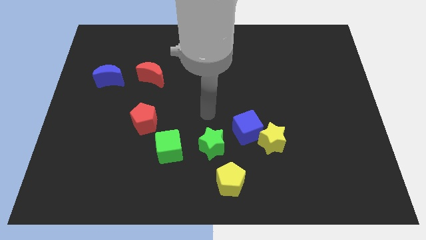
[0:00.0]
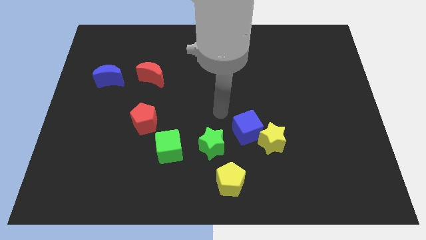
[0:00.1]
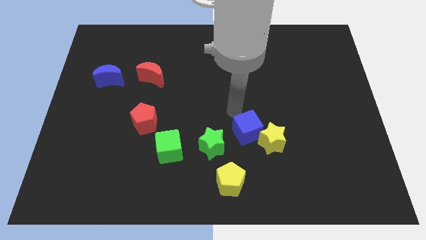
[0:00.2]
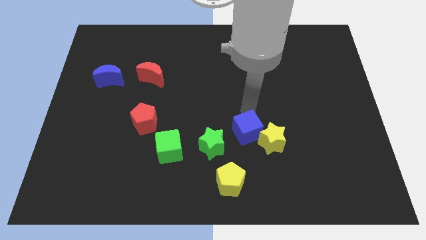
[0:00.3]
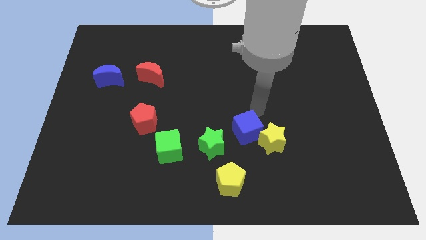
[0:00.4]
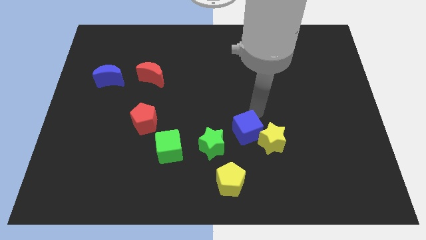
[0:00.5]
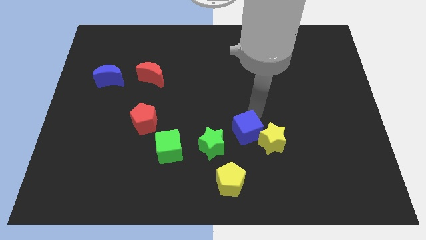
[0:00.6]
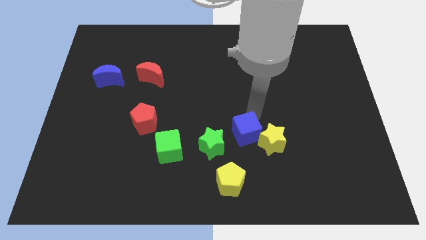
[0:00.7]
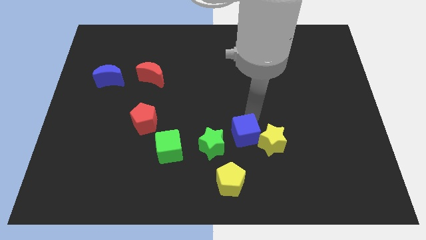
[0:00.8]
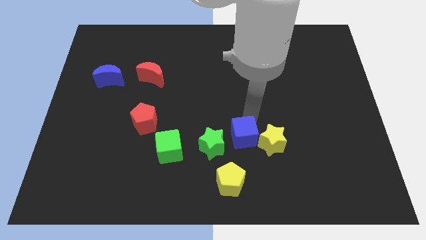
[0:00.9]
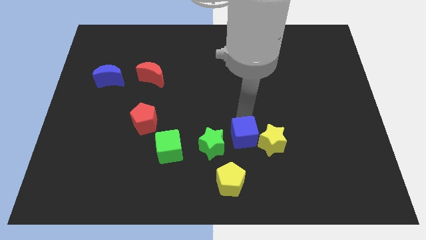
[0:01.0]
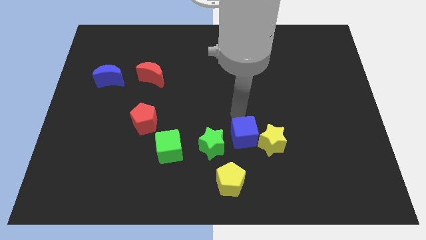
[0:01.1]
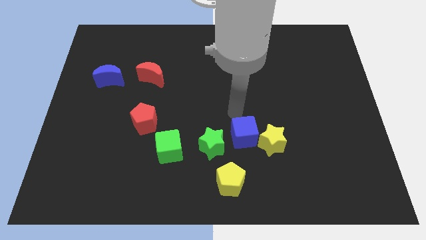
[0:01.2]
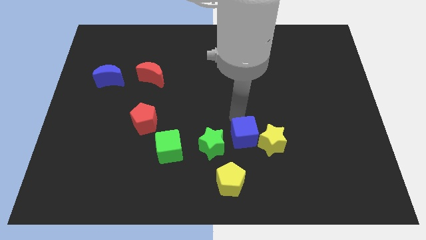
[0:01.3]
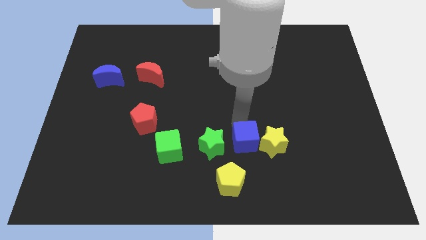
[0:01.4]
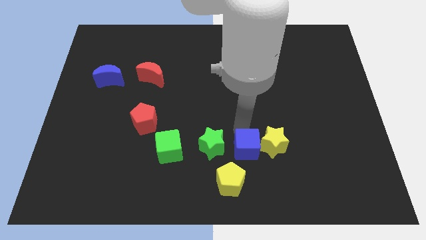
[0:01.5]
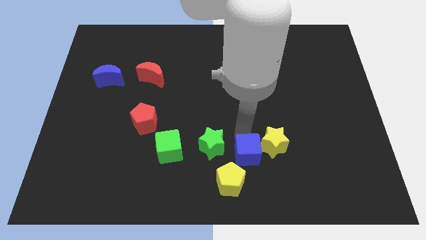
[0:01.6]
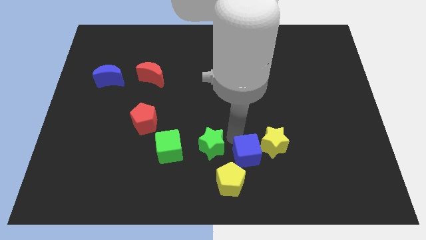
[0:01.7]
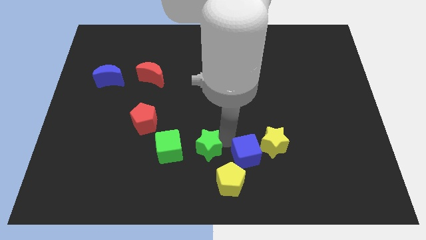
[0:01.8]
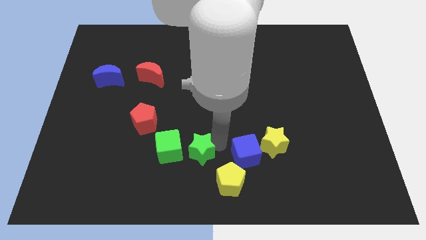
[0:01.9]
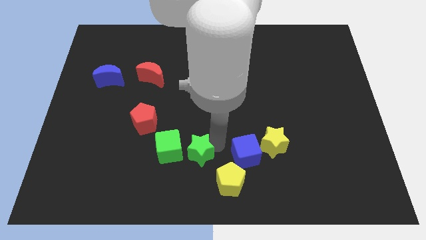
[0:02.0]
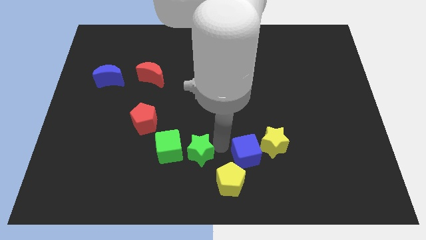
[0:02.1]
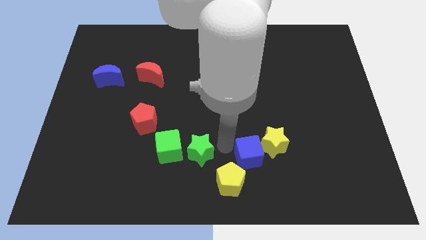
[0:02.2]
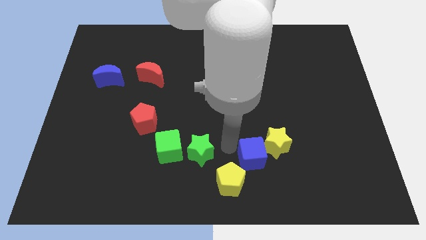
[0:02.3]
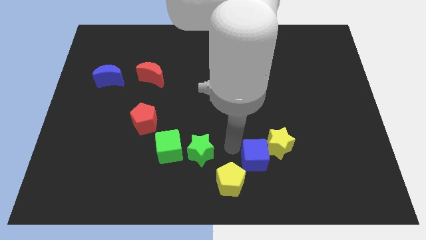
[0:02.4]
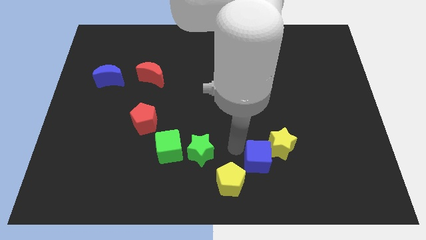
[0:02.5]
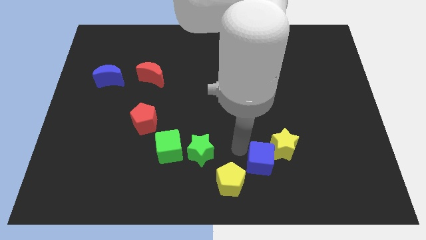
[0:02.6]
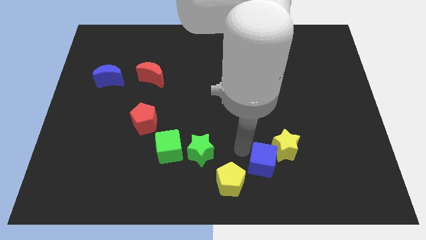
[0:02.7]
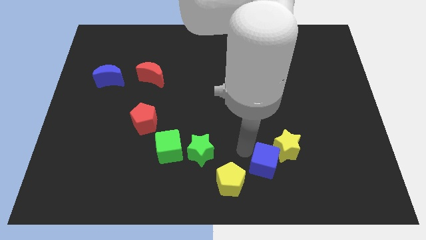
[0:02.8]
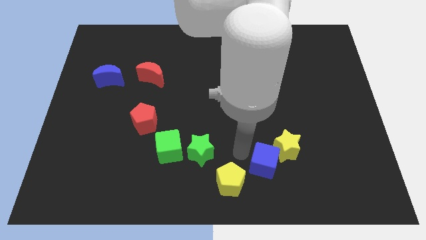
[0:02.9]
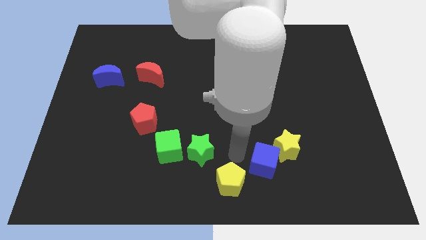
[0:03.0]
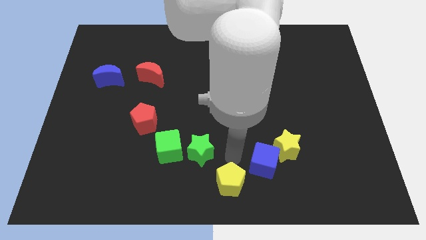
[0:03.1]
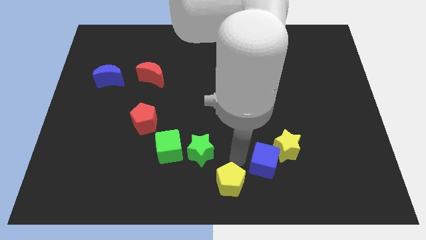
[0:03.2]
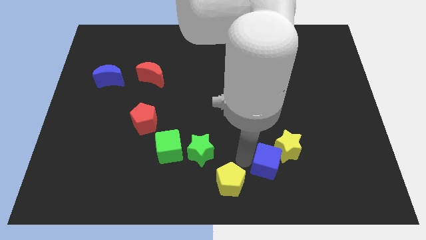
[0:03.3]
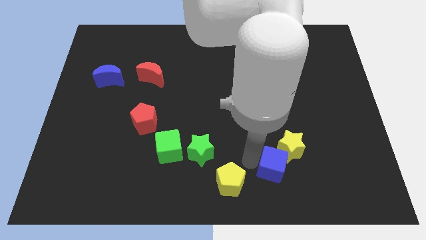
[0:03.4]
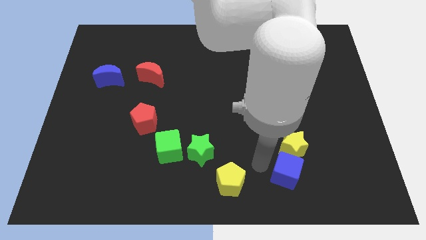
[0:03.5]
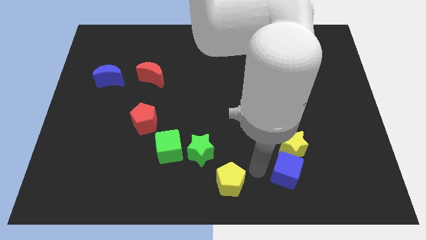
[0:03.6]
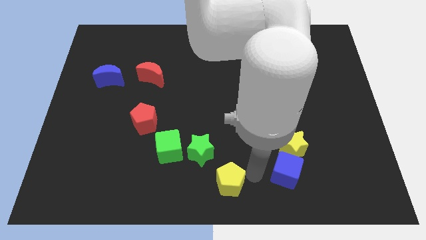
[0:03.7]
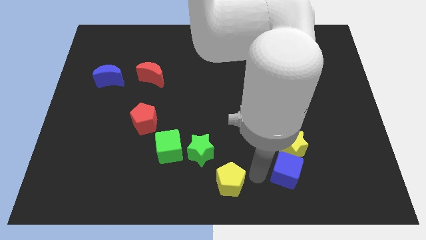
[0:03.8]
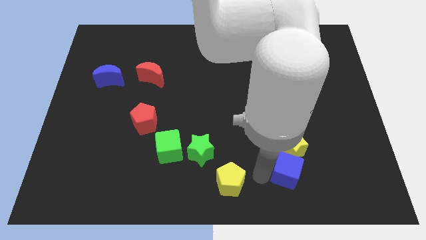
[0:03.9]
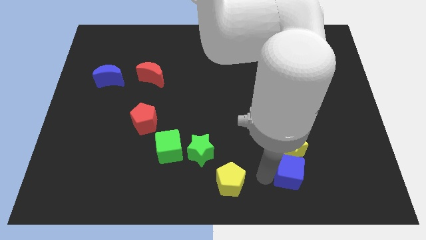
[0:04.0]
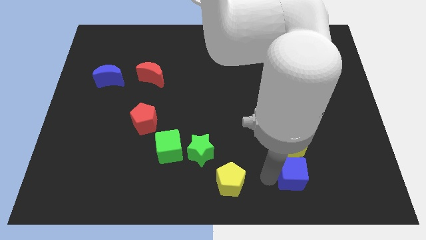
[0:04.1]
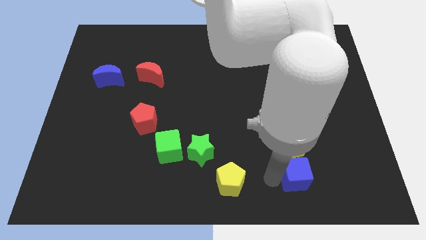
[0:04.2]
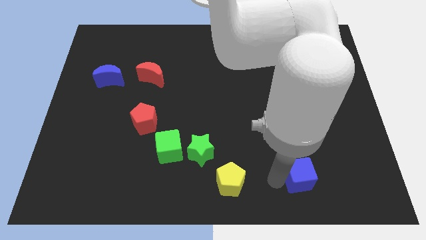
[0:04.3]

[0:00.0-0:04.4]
move the blue cube diagonally down and to the right of the yellow star

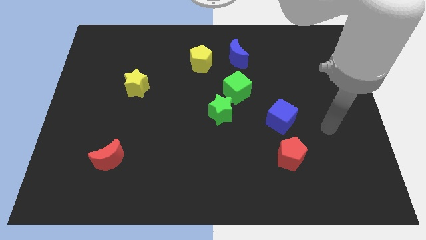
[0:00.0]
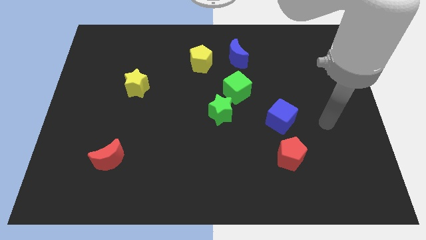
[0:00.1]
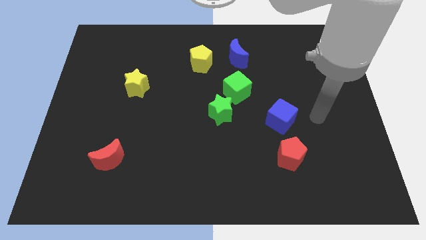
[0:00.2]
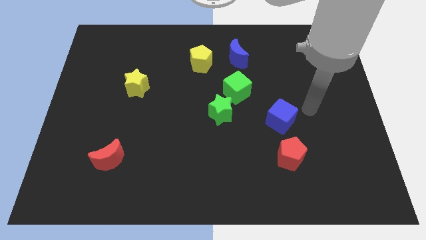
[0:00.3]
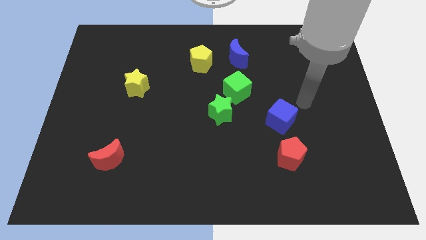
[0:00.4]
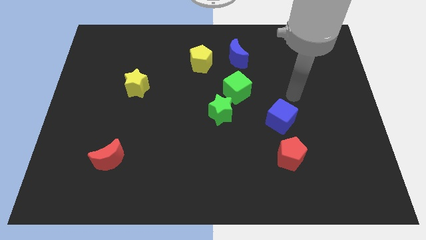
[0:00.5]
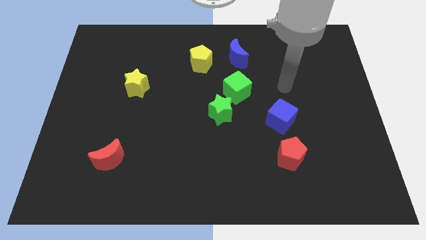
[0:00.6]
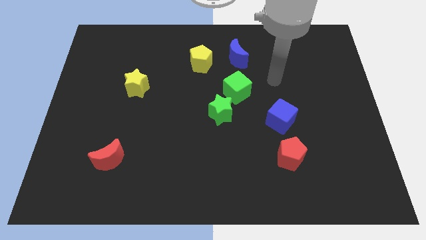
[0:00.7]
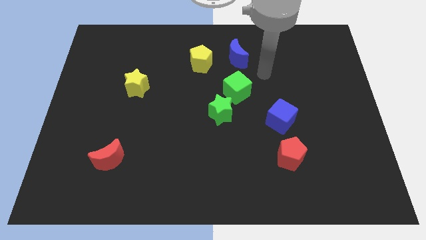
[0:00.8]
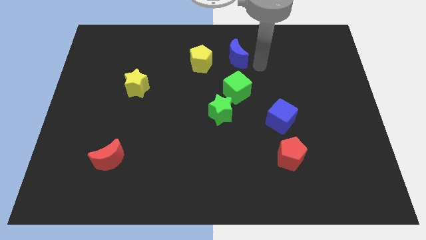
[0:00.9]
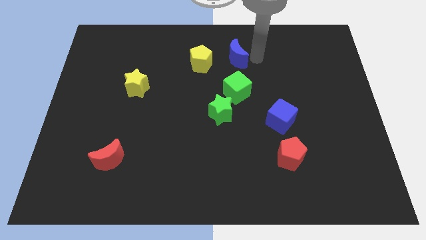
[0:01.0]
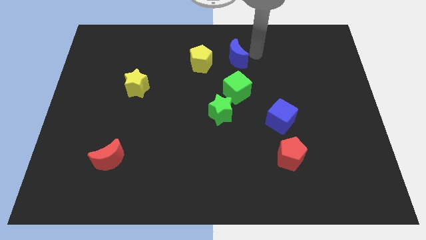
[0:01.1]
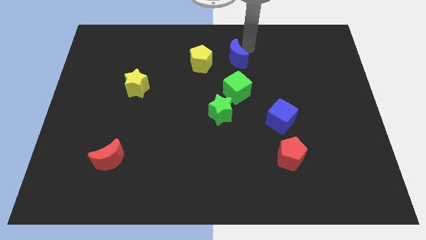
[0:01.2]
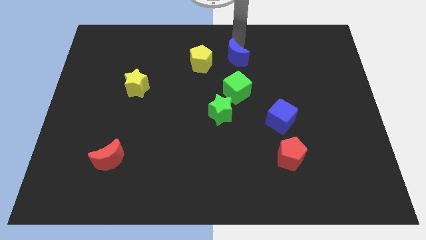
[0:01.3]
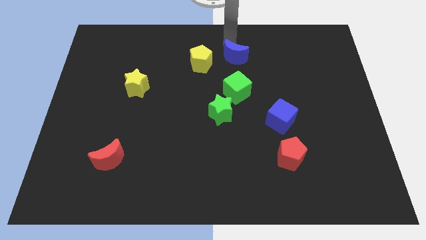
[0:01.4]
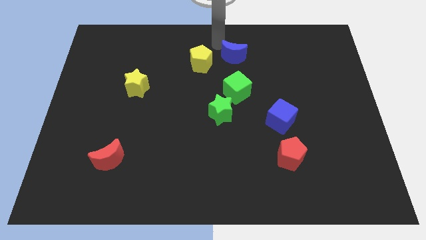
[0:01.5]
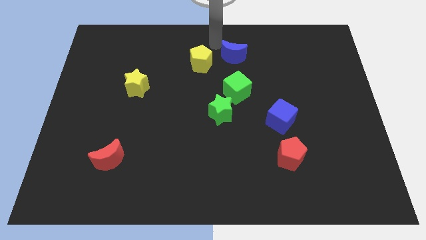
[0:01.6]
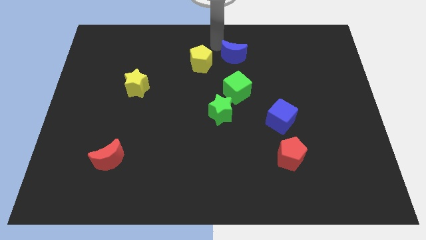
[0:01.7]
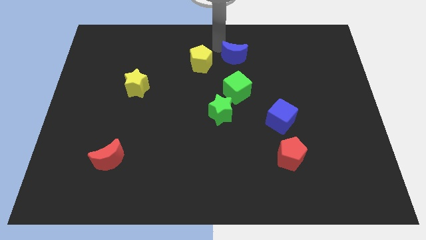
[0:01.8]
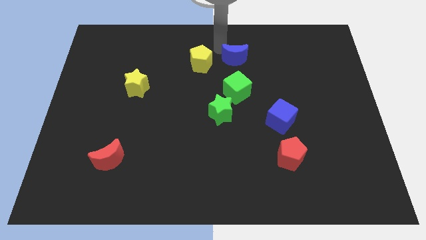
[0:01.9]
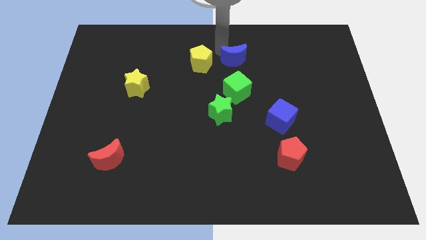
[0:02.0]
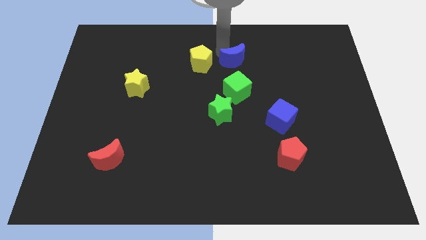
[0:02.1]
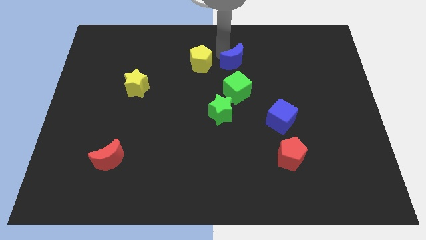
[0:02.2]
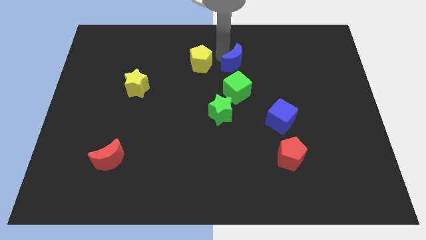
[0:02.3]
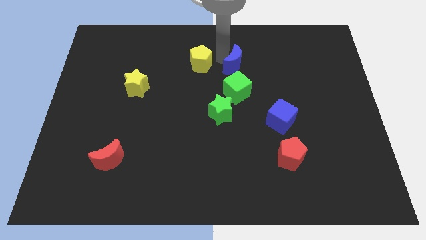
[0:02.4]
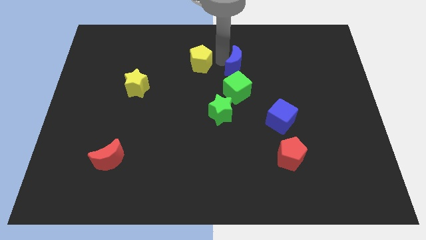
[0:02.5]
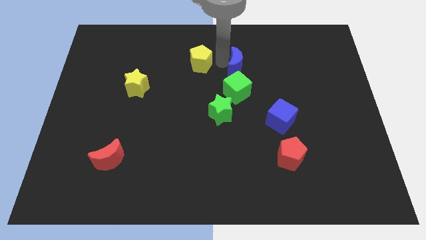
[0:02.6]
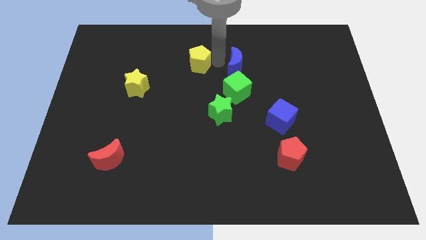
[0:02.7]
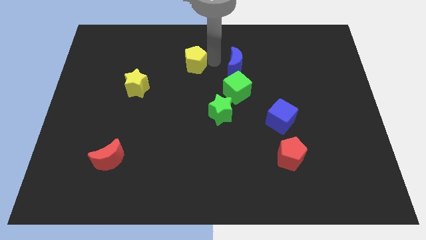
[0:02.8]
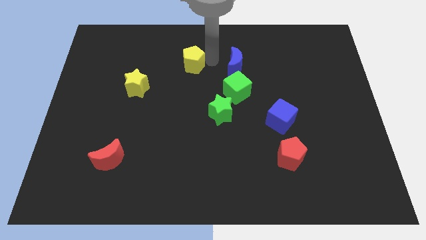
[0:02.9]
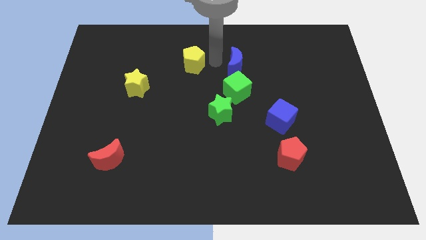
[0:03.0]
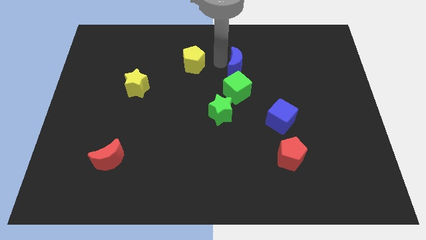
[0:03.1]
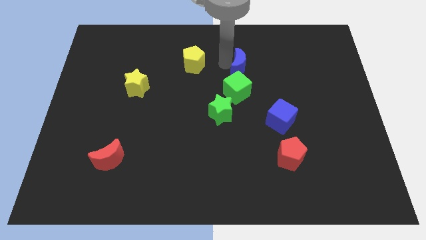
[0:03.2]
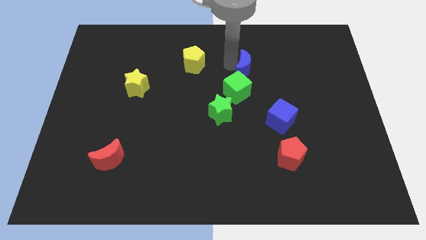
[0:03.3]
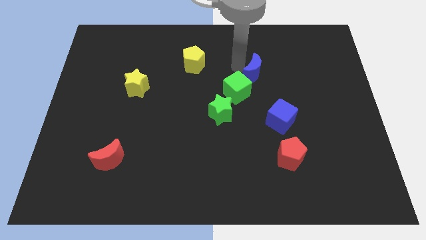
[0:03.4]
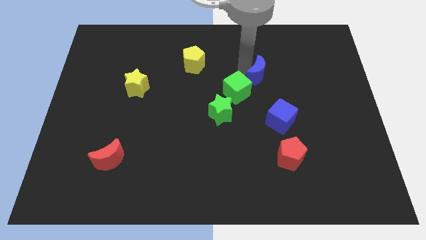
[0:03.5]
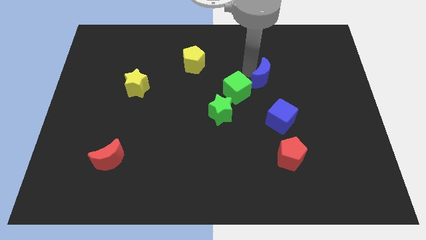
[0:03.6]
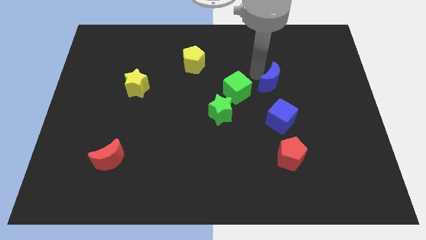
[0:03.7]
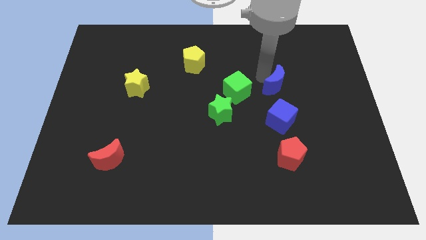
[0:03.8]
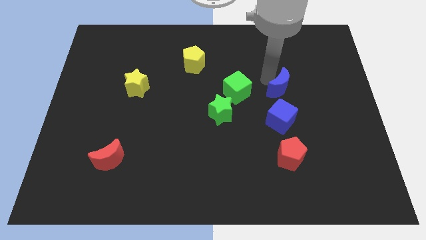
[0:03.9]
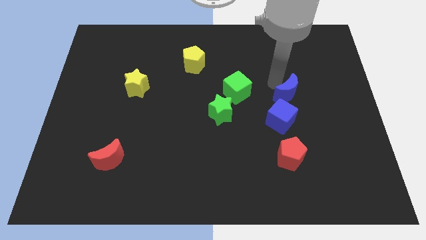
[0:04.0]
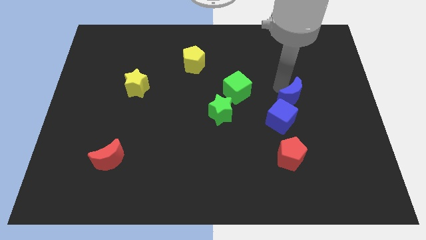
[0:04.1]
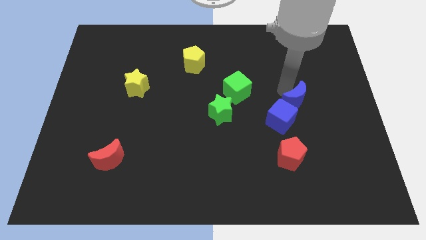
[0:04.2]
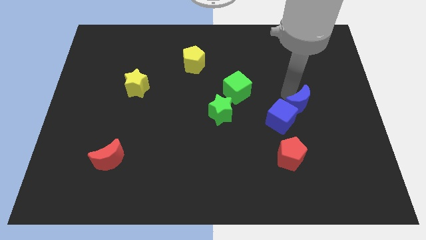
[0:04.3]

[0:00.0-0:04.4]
put the blue moon to the right side of the blue cube
